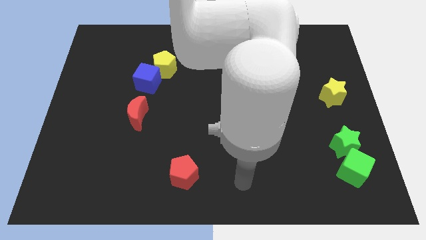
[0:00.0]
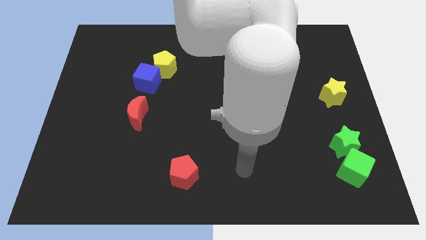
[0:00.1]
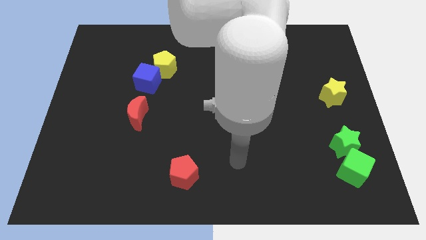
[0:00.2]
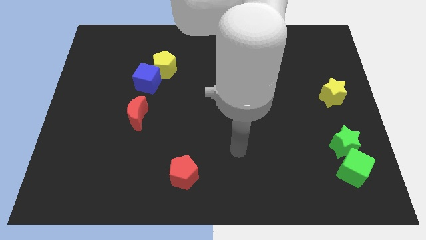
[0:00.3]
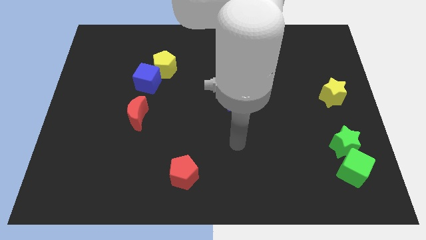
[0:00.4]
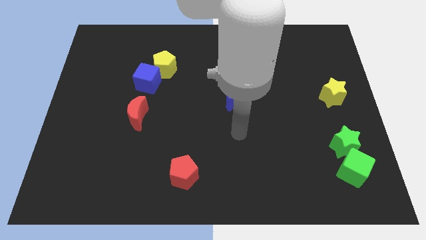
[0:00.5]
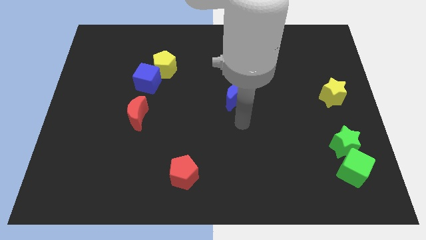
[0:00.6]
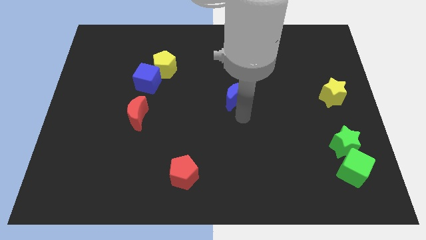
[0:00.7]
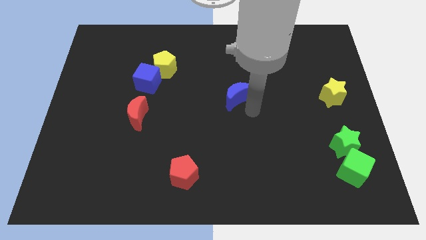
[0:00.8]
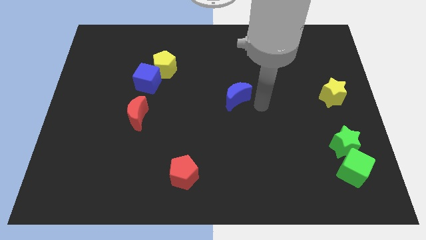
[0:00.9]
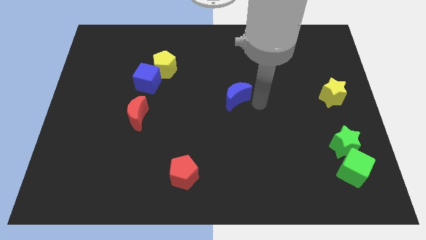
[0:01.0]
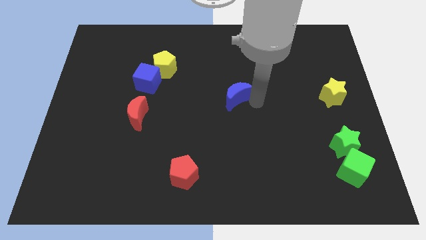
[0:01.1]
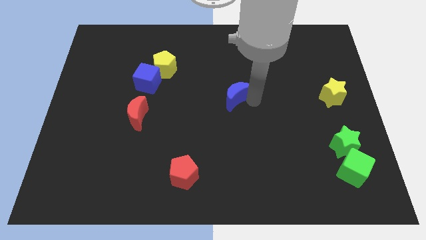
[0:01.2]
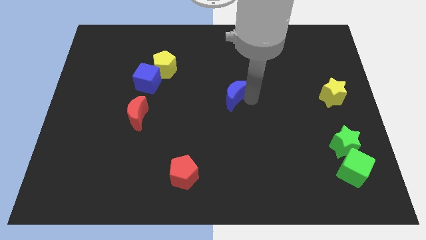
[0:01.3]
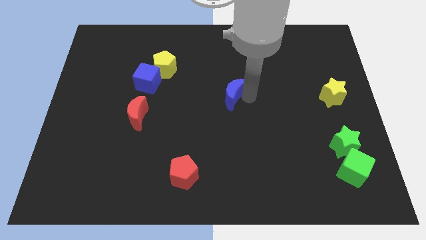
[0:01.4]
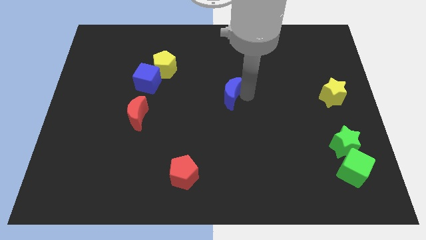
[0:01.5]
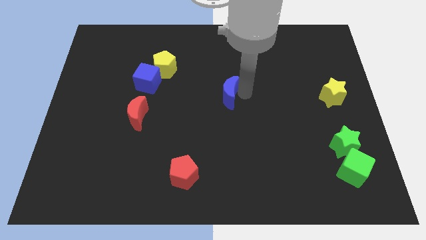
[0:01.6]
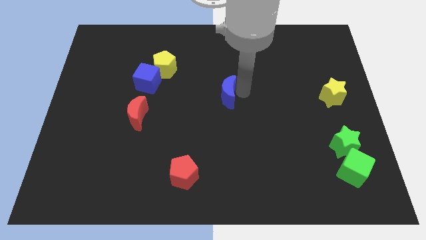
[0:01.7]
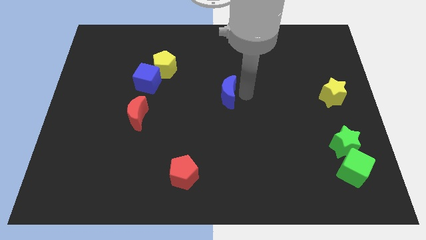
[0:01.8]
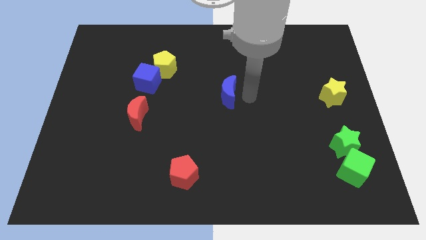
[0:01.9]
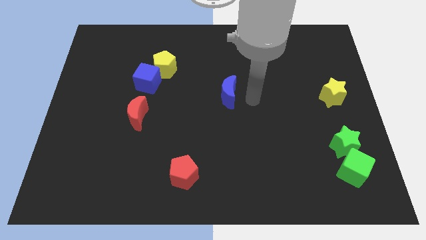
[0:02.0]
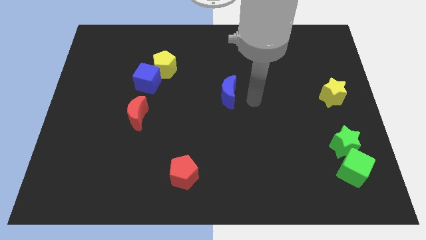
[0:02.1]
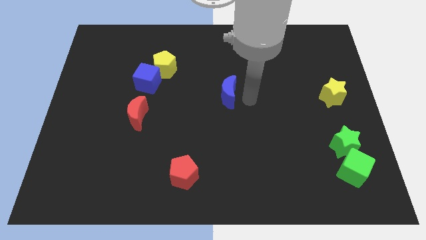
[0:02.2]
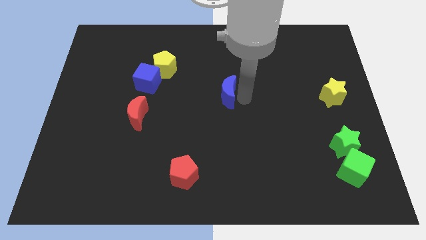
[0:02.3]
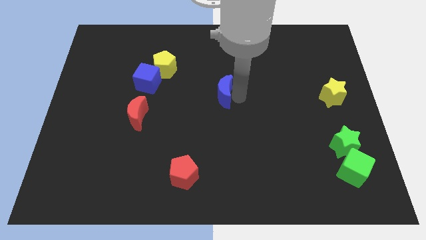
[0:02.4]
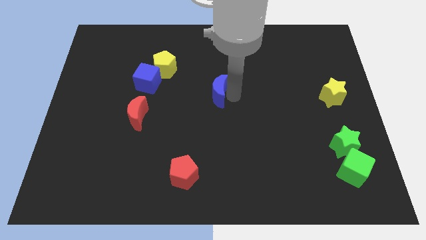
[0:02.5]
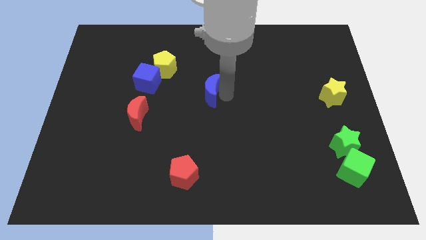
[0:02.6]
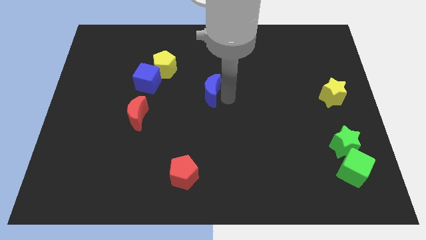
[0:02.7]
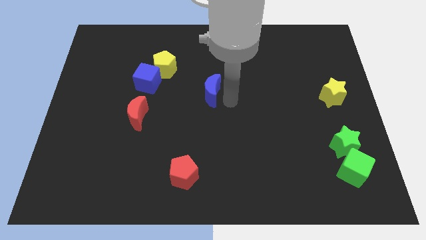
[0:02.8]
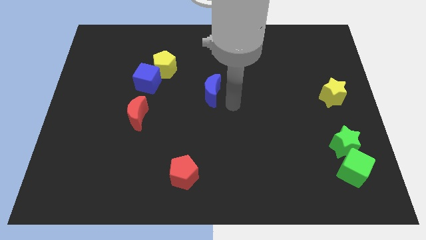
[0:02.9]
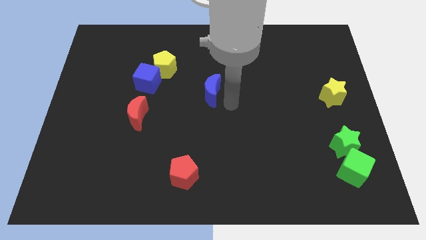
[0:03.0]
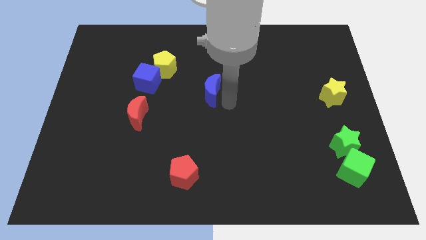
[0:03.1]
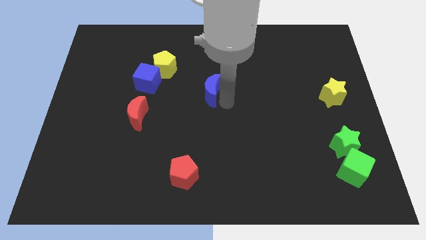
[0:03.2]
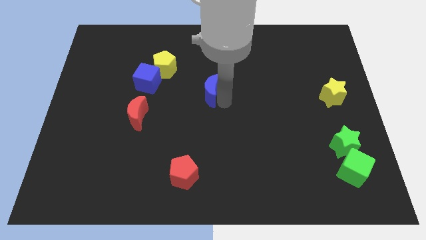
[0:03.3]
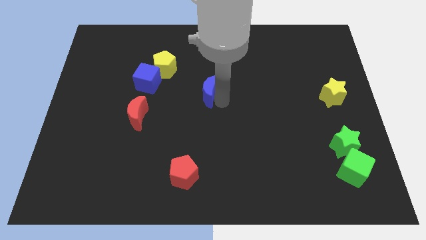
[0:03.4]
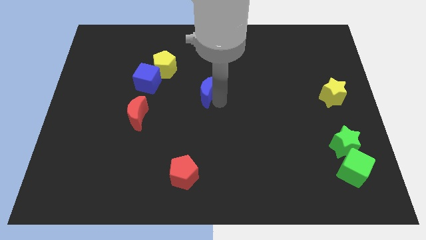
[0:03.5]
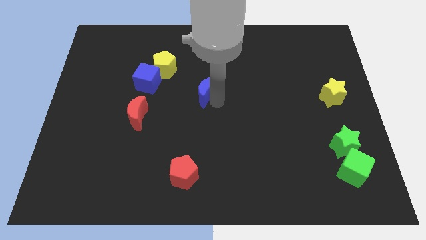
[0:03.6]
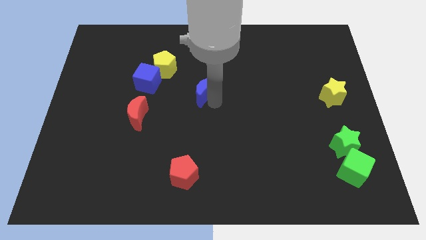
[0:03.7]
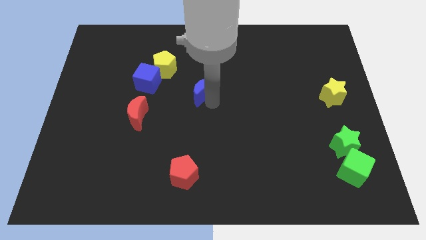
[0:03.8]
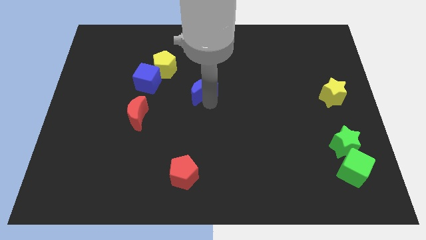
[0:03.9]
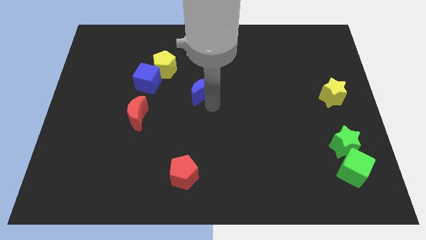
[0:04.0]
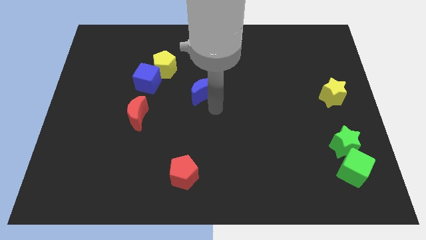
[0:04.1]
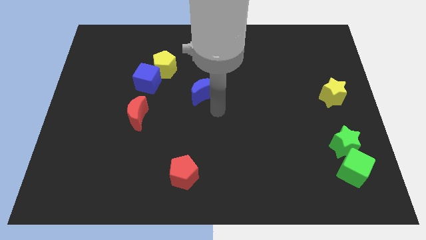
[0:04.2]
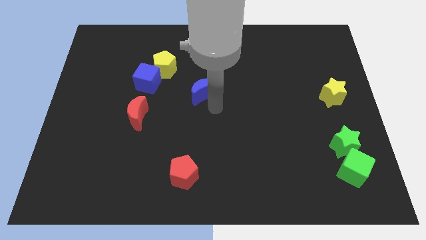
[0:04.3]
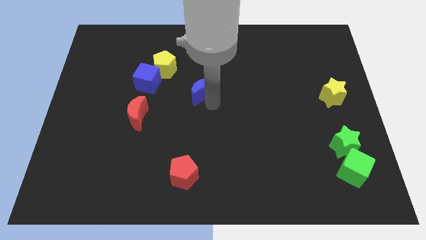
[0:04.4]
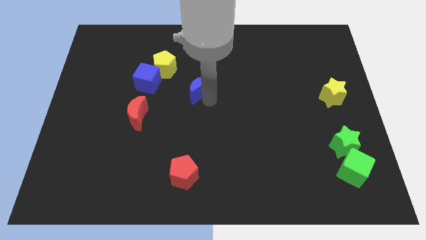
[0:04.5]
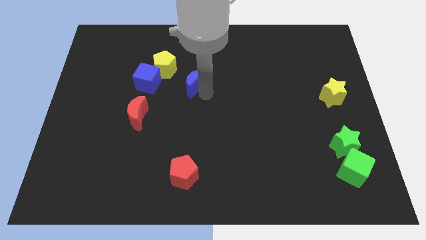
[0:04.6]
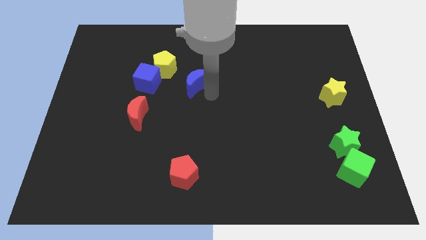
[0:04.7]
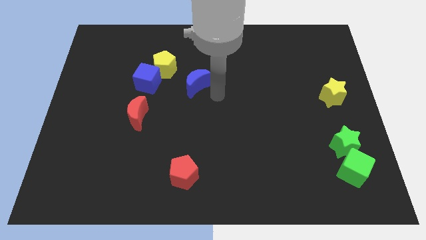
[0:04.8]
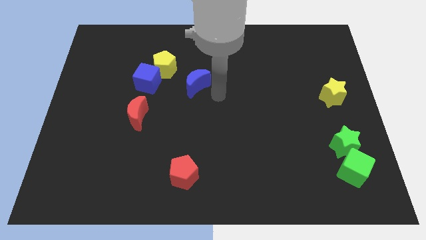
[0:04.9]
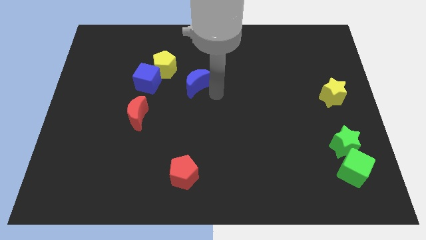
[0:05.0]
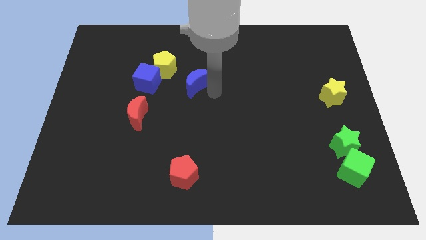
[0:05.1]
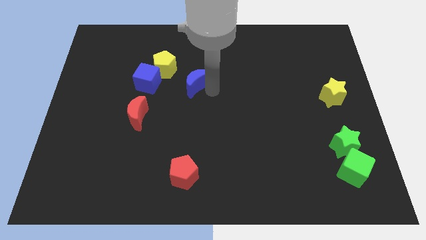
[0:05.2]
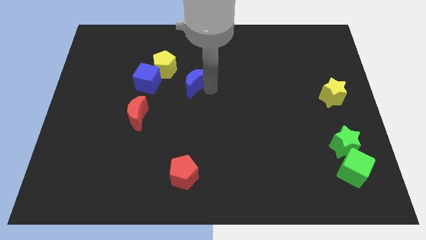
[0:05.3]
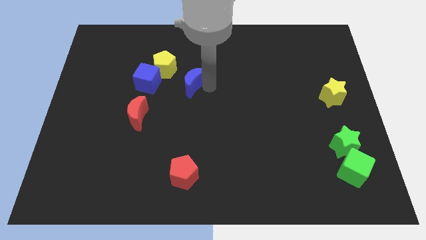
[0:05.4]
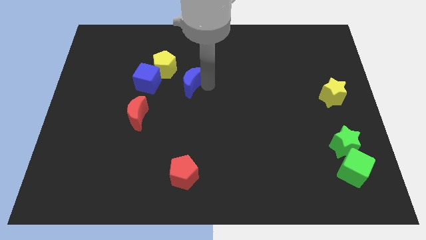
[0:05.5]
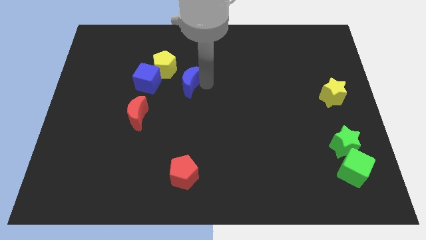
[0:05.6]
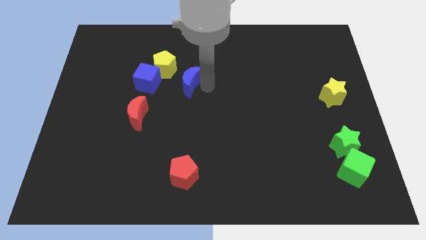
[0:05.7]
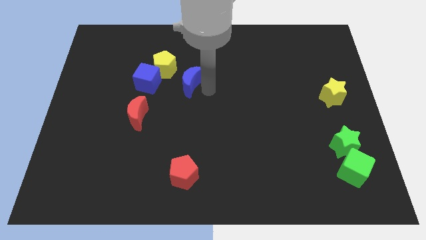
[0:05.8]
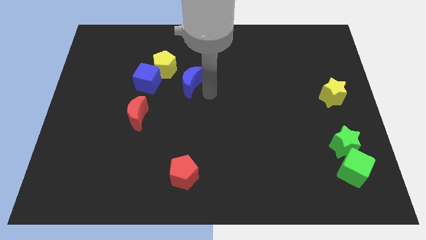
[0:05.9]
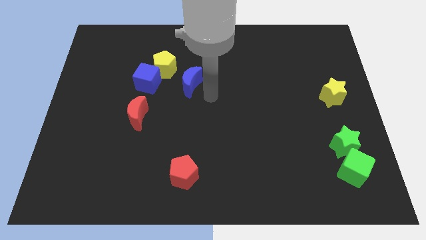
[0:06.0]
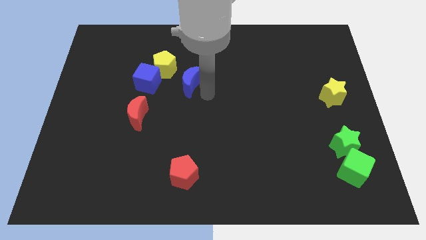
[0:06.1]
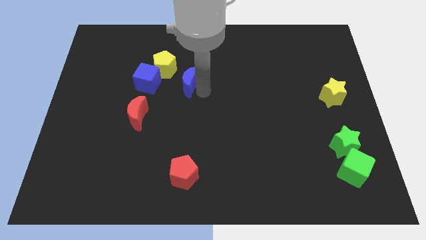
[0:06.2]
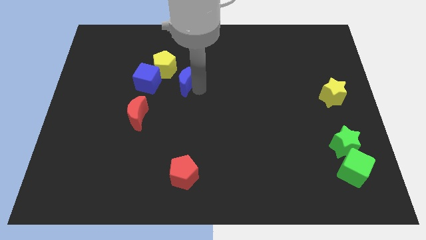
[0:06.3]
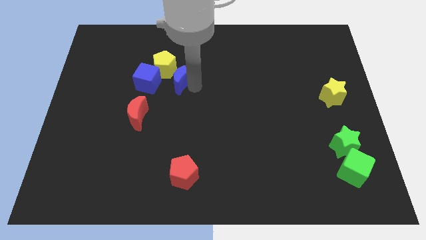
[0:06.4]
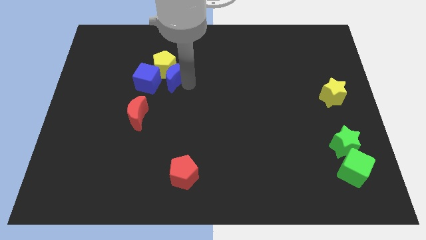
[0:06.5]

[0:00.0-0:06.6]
put the blue moon close to the yellow pentagon

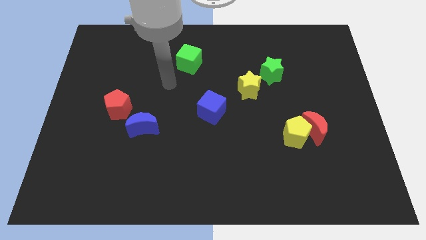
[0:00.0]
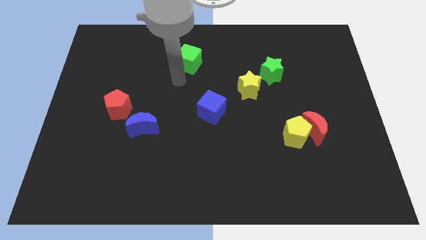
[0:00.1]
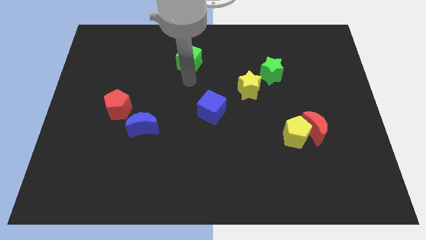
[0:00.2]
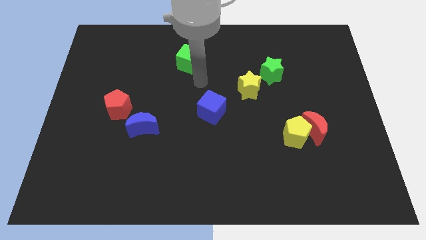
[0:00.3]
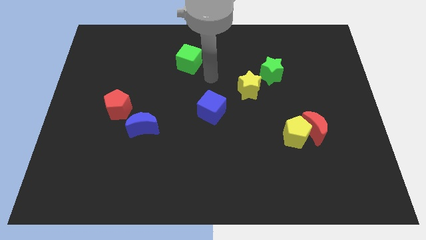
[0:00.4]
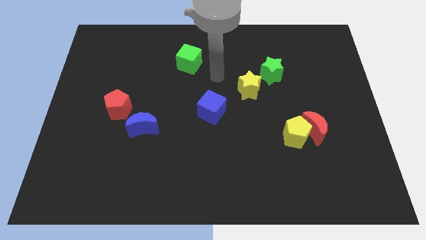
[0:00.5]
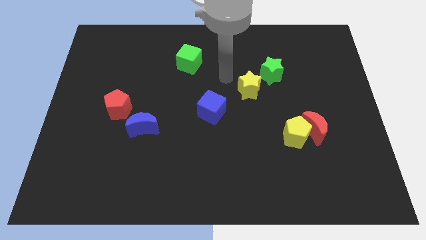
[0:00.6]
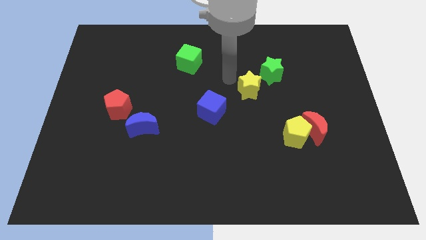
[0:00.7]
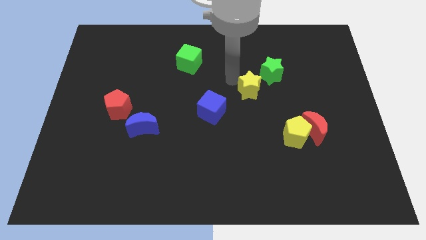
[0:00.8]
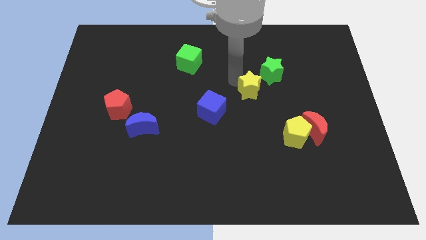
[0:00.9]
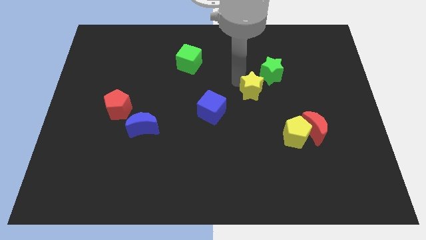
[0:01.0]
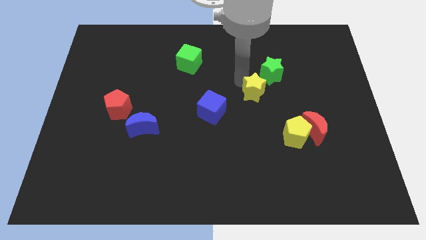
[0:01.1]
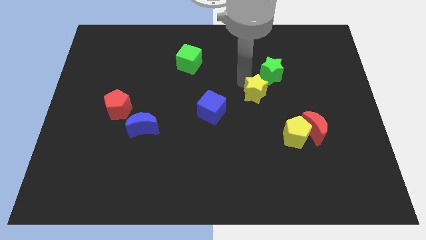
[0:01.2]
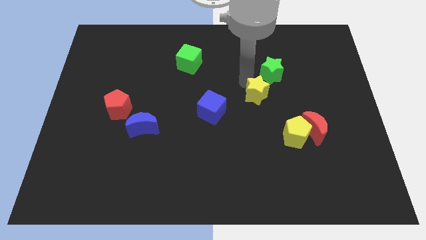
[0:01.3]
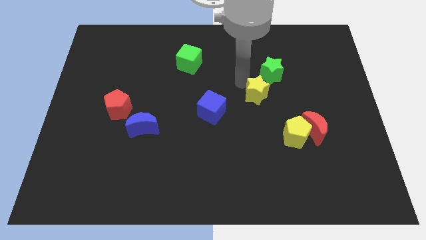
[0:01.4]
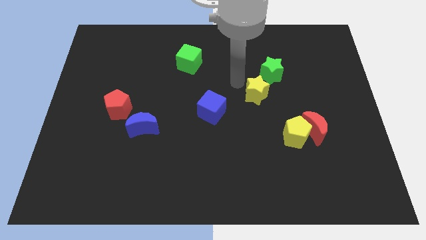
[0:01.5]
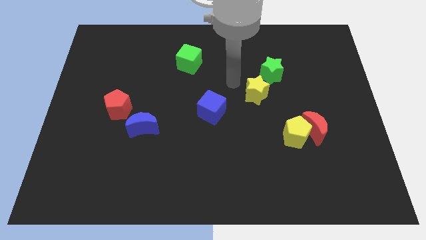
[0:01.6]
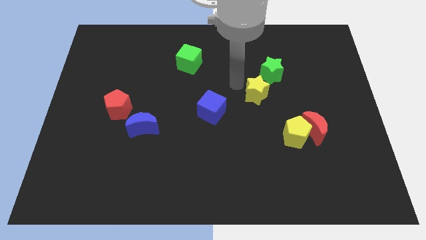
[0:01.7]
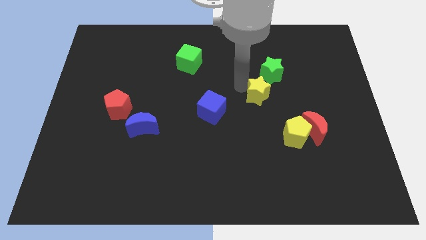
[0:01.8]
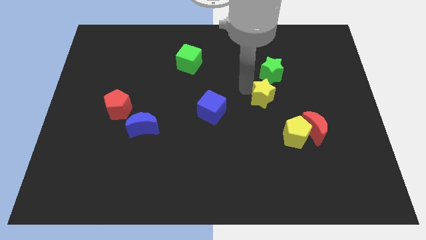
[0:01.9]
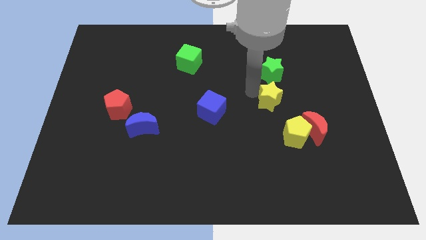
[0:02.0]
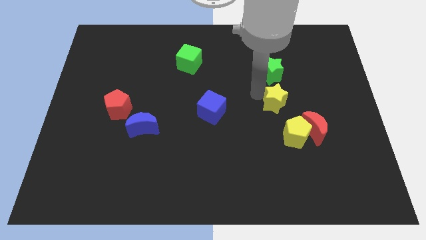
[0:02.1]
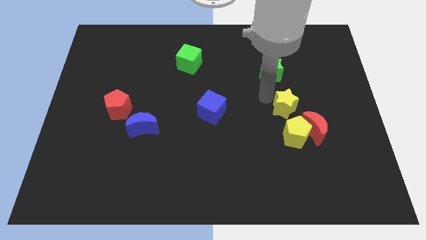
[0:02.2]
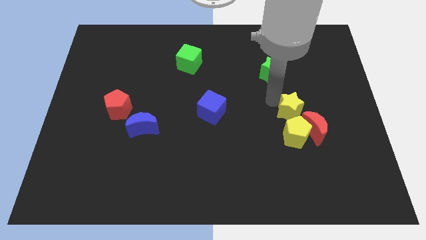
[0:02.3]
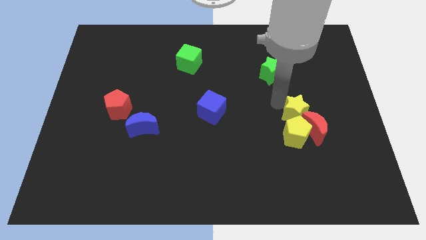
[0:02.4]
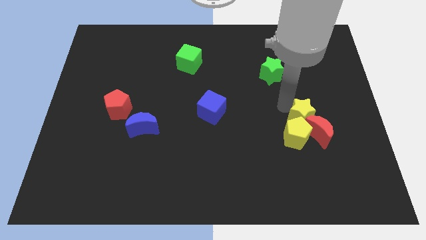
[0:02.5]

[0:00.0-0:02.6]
push the yellow star to the red moon
